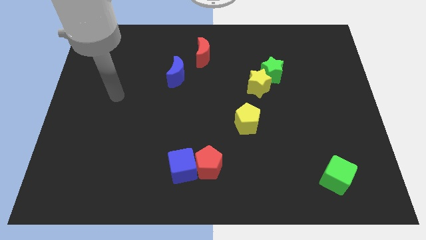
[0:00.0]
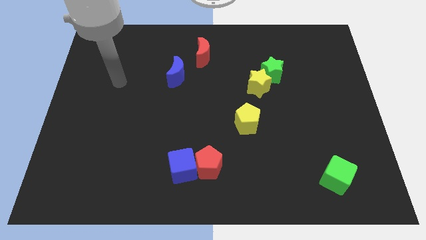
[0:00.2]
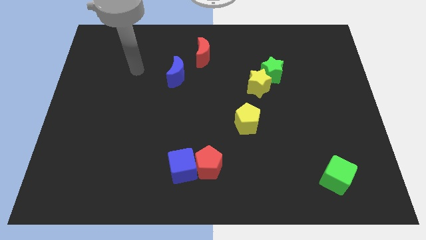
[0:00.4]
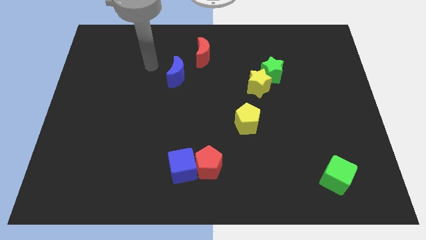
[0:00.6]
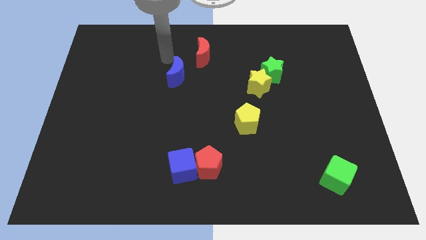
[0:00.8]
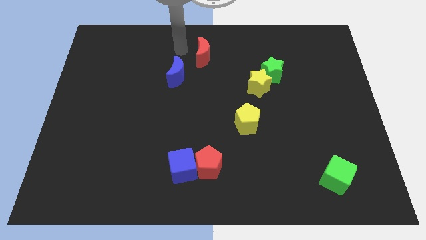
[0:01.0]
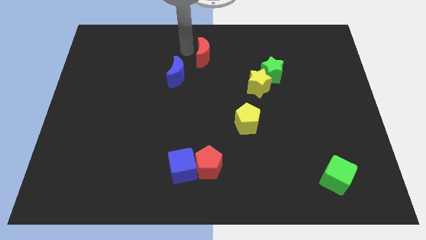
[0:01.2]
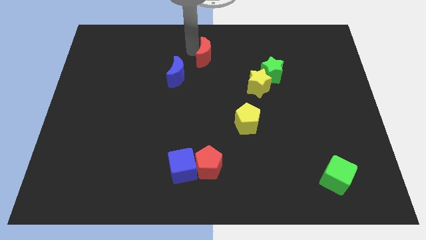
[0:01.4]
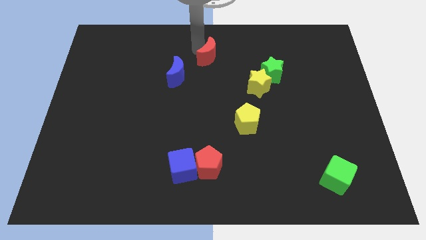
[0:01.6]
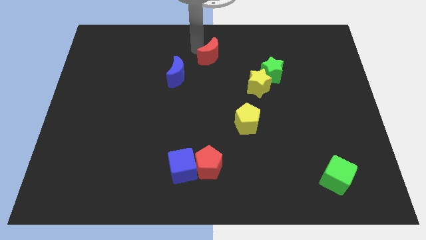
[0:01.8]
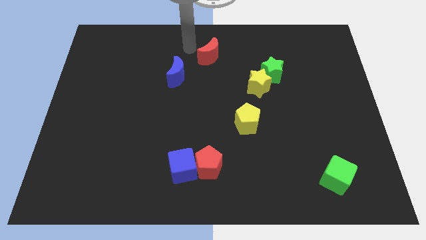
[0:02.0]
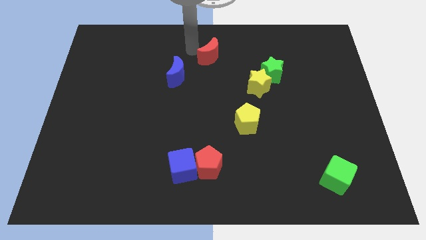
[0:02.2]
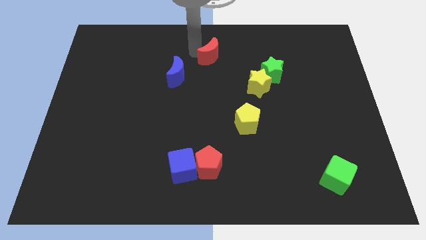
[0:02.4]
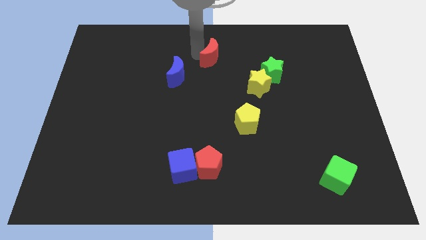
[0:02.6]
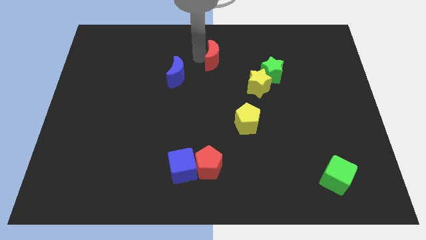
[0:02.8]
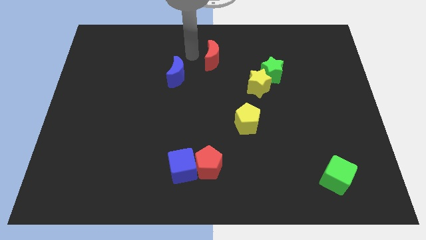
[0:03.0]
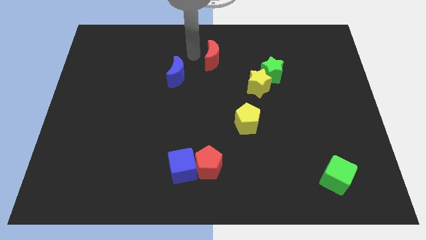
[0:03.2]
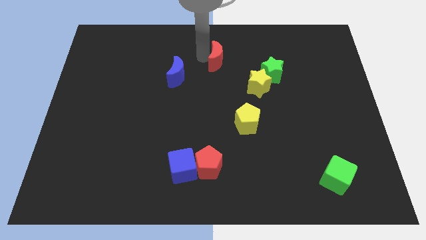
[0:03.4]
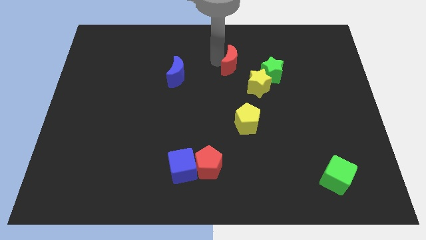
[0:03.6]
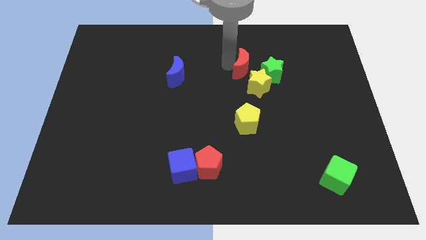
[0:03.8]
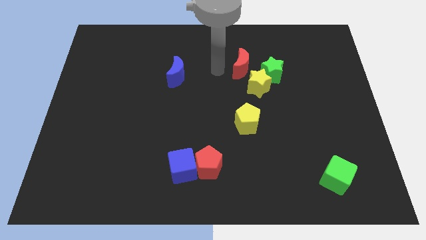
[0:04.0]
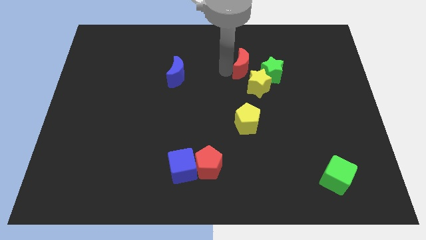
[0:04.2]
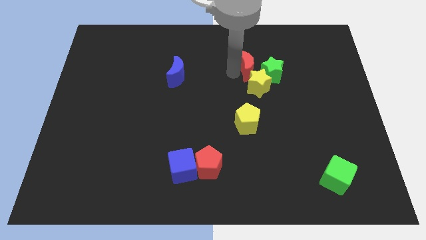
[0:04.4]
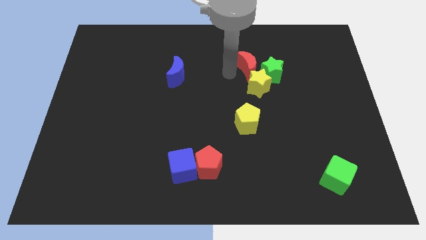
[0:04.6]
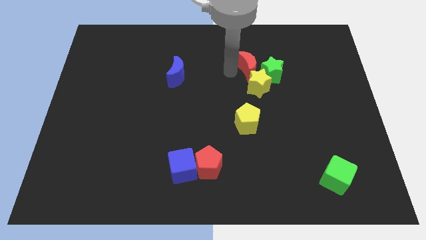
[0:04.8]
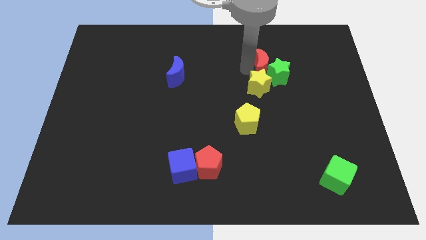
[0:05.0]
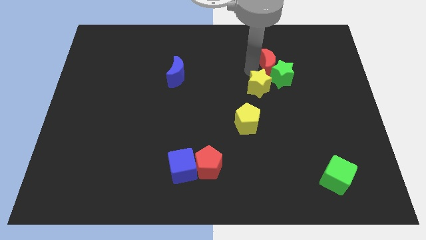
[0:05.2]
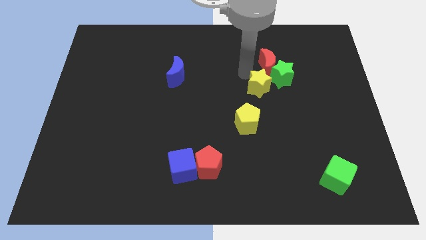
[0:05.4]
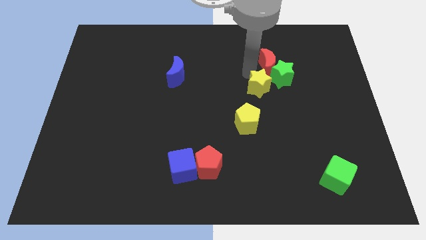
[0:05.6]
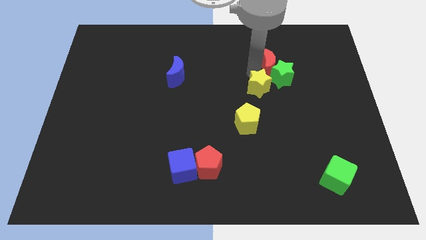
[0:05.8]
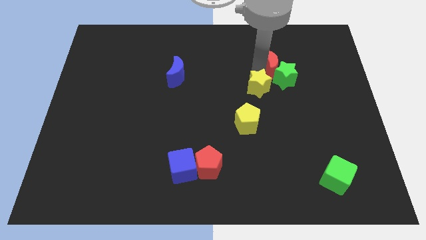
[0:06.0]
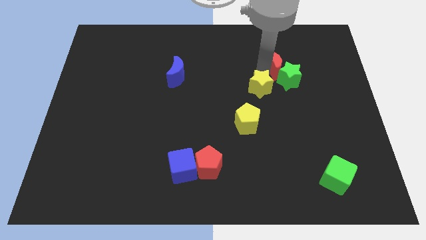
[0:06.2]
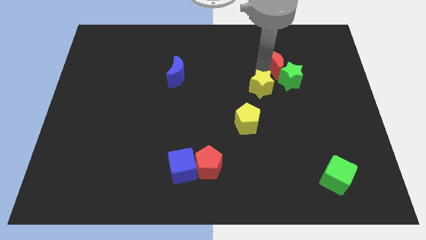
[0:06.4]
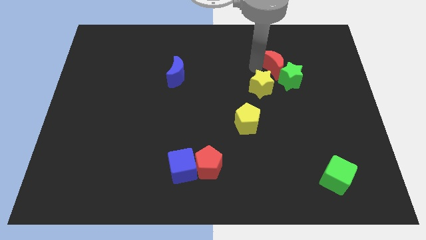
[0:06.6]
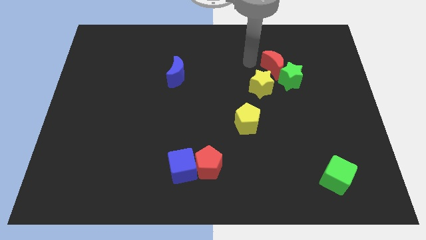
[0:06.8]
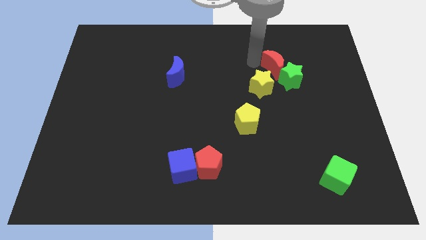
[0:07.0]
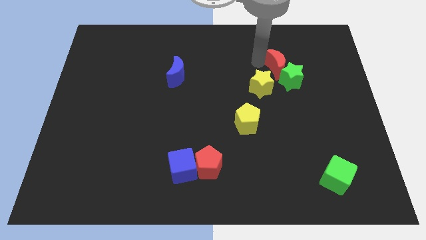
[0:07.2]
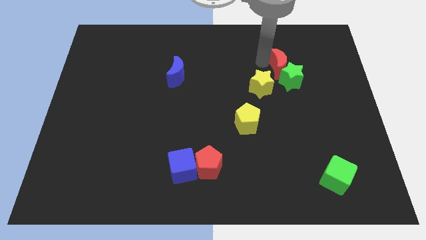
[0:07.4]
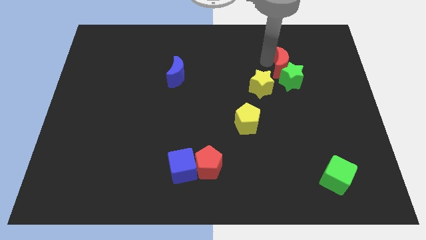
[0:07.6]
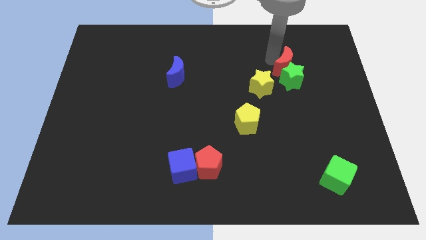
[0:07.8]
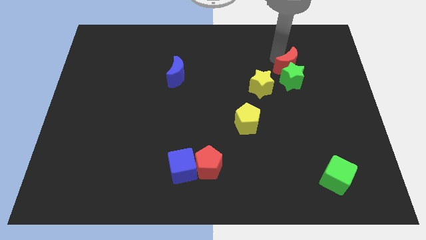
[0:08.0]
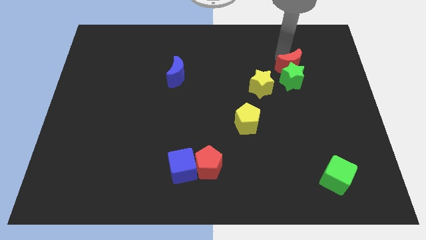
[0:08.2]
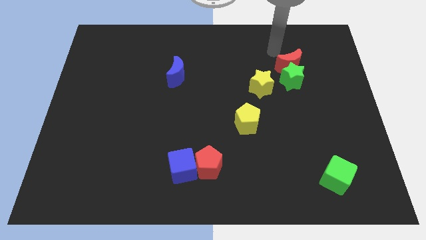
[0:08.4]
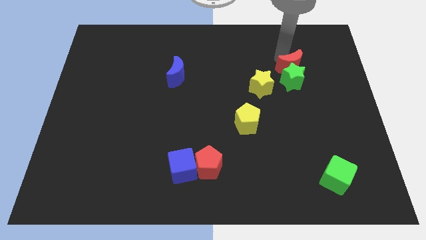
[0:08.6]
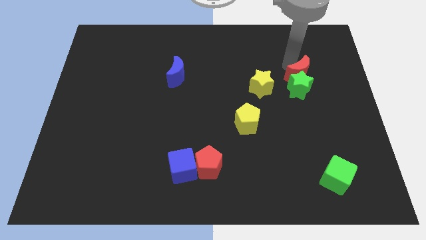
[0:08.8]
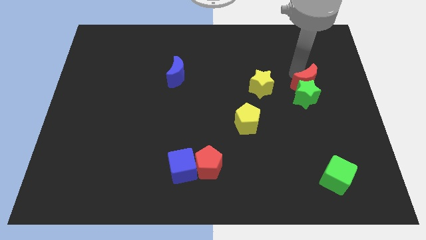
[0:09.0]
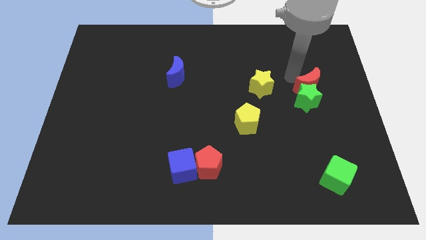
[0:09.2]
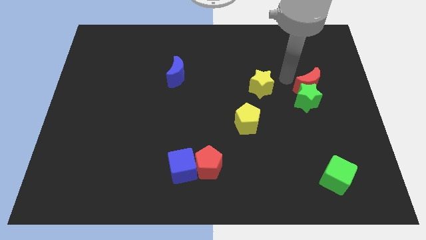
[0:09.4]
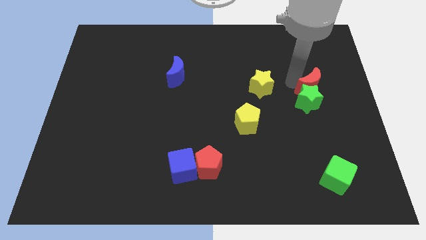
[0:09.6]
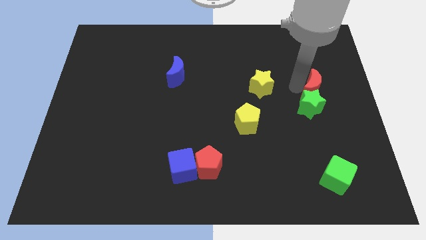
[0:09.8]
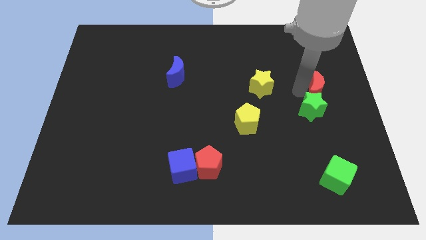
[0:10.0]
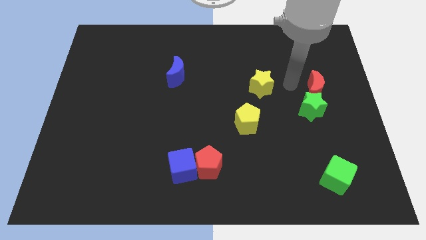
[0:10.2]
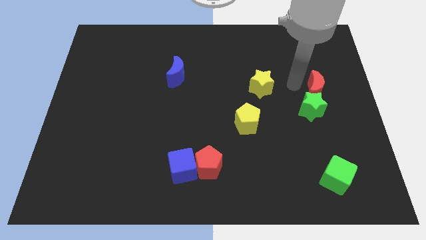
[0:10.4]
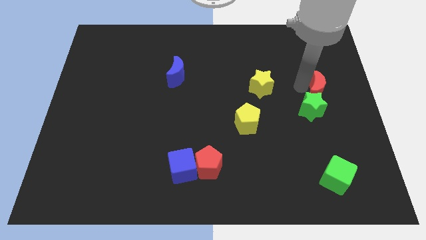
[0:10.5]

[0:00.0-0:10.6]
push the red moon to the right side

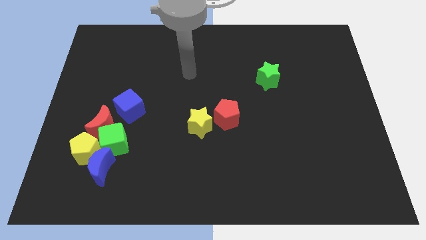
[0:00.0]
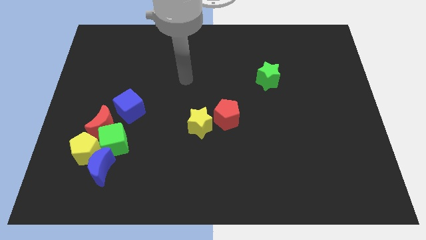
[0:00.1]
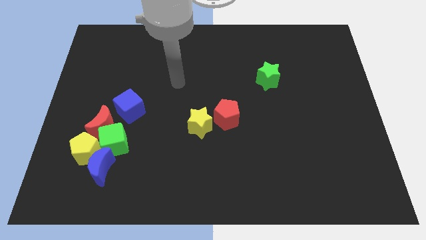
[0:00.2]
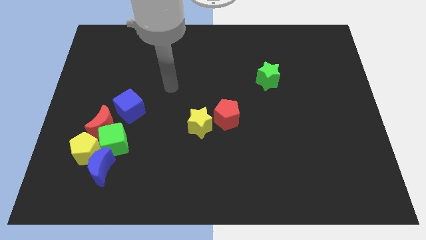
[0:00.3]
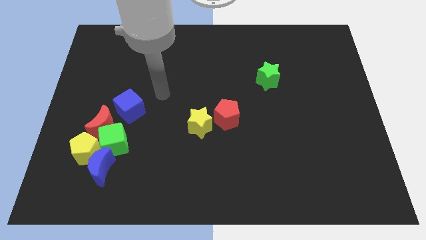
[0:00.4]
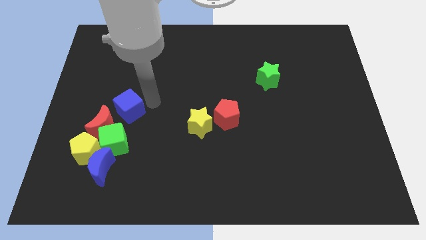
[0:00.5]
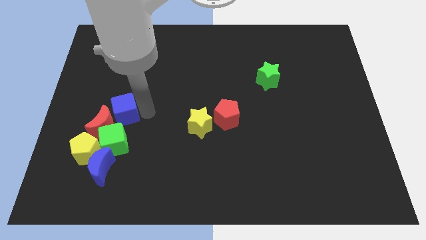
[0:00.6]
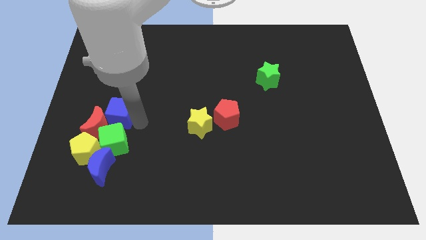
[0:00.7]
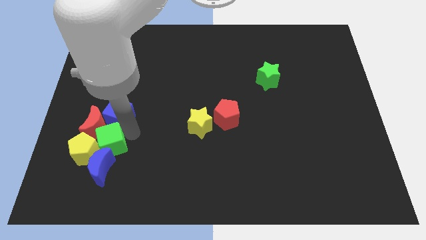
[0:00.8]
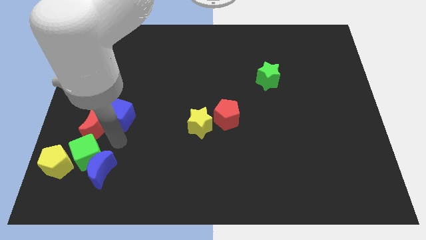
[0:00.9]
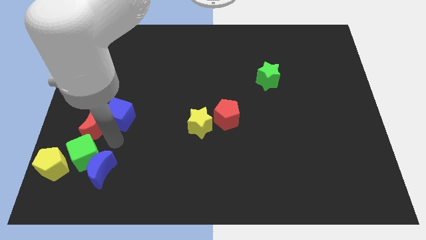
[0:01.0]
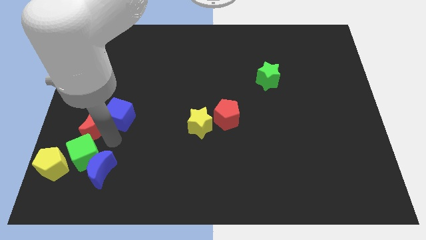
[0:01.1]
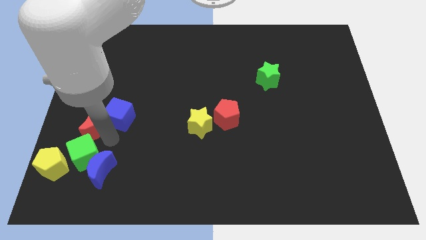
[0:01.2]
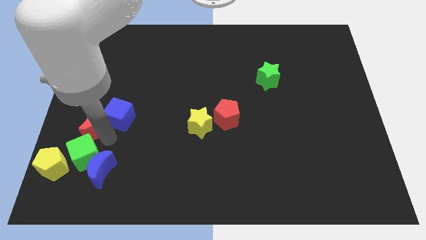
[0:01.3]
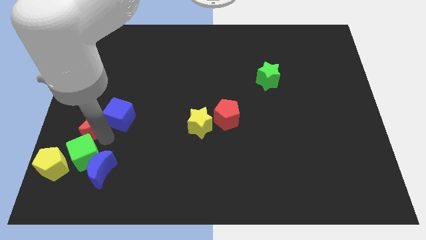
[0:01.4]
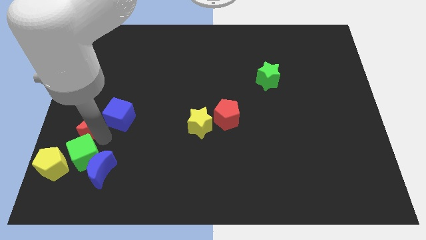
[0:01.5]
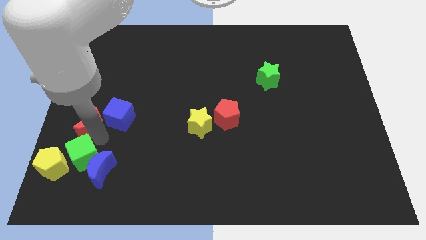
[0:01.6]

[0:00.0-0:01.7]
push the red moon to the left side
